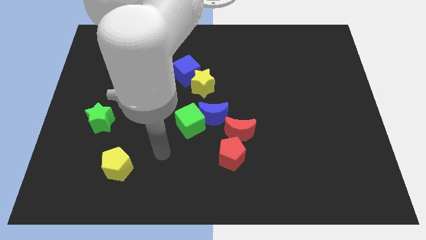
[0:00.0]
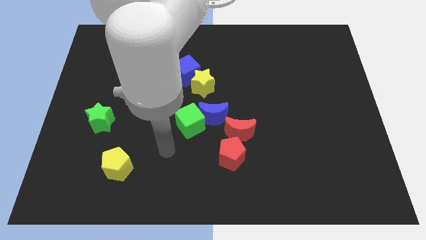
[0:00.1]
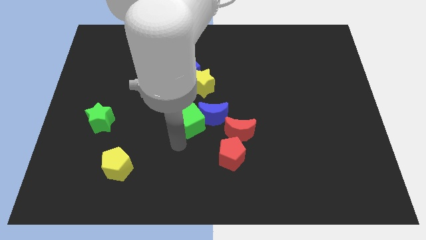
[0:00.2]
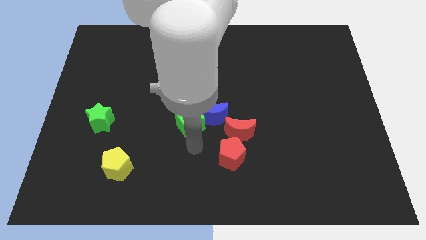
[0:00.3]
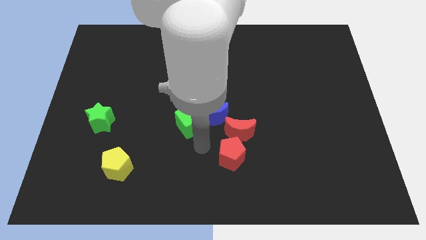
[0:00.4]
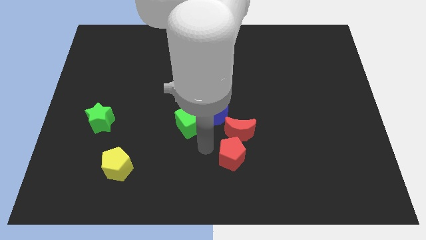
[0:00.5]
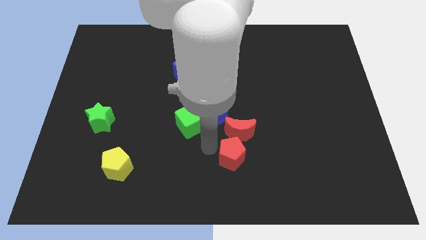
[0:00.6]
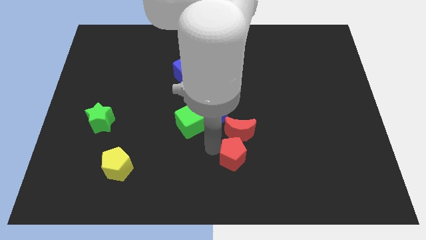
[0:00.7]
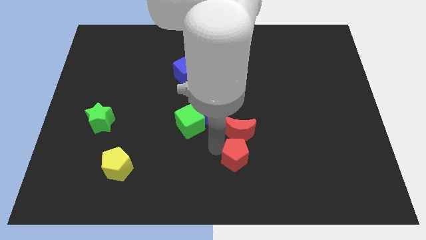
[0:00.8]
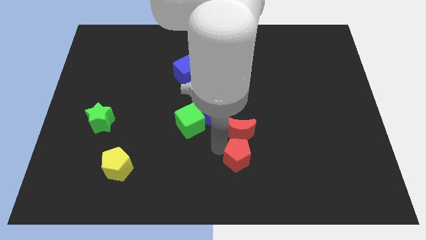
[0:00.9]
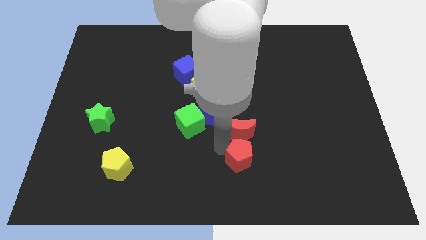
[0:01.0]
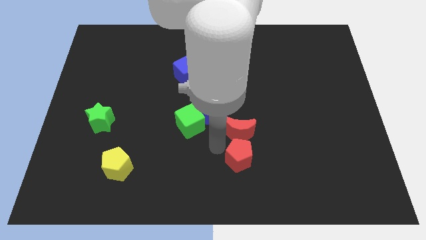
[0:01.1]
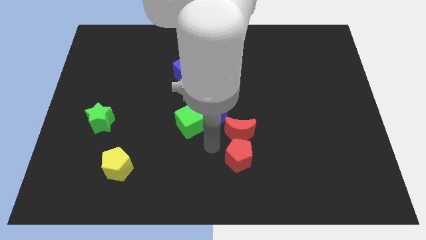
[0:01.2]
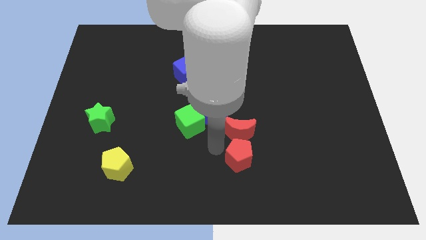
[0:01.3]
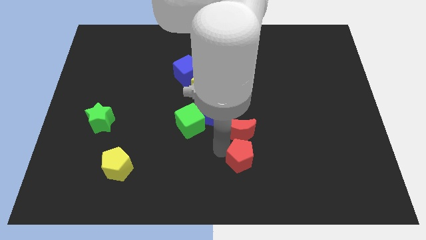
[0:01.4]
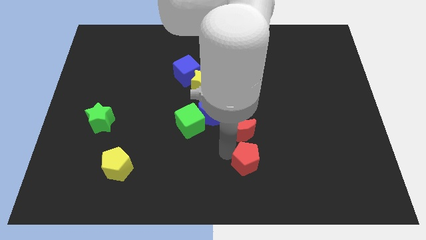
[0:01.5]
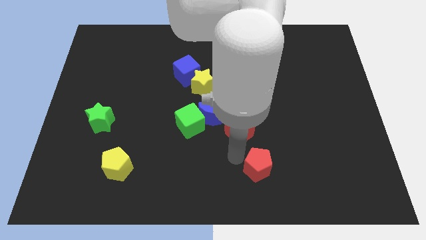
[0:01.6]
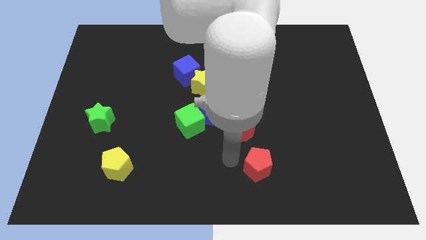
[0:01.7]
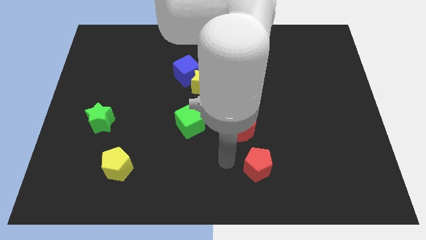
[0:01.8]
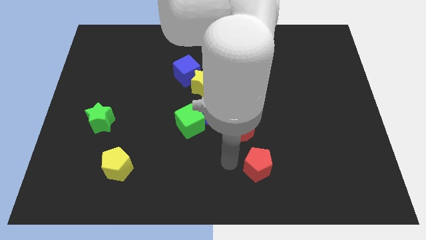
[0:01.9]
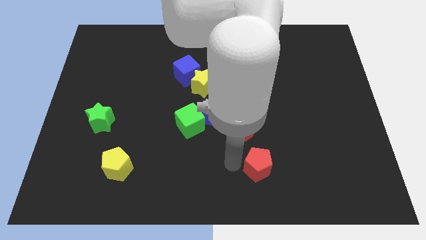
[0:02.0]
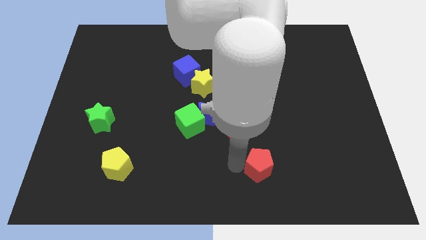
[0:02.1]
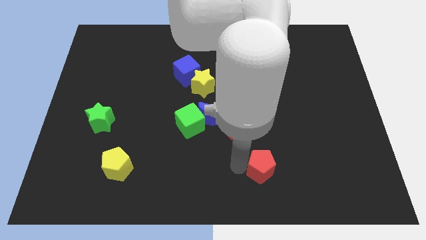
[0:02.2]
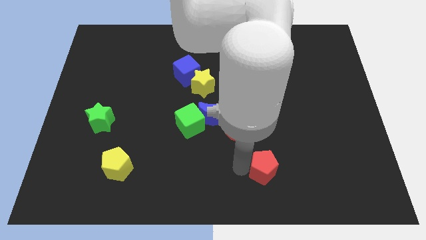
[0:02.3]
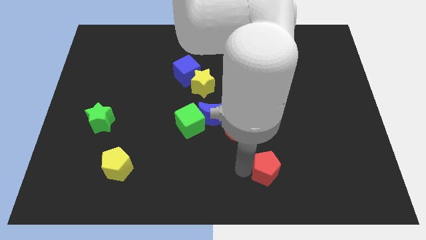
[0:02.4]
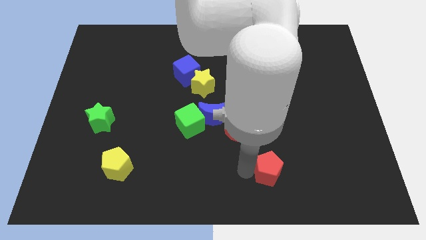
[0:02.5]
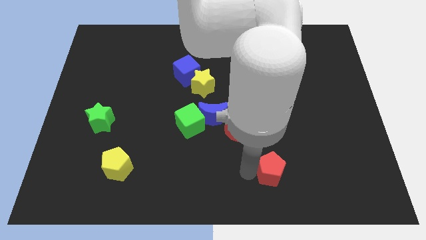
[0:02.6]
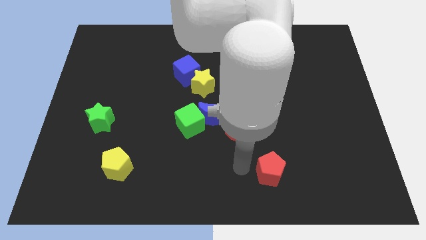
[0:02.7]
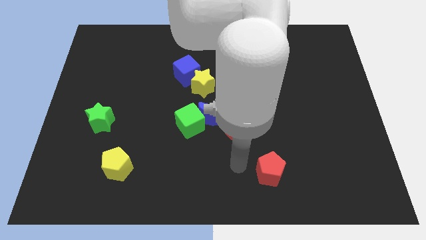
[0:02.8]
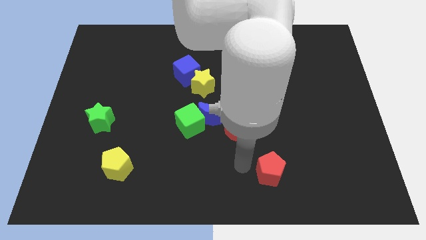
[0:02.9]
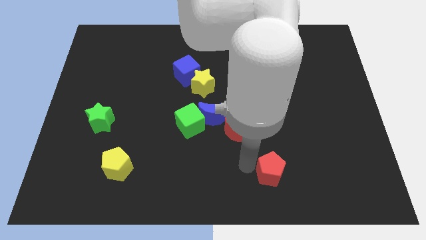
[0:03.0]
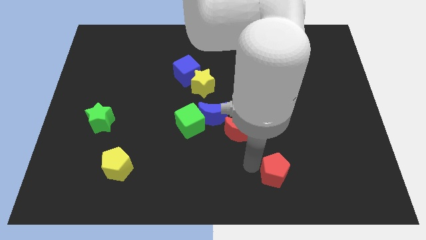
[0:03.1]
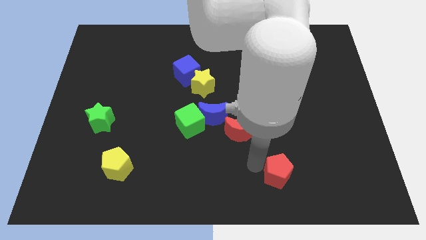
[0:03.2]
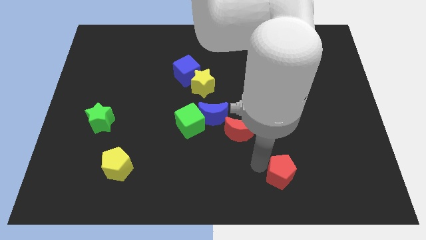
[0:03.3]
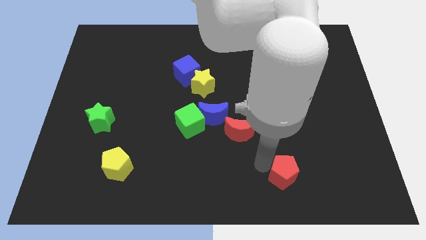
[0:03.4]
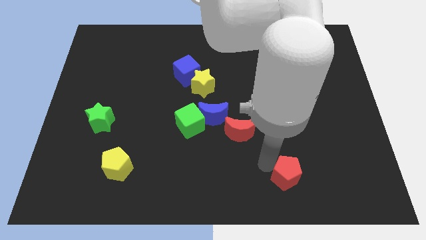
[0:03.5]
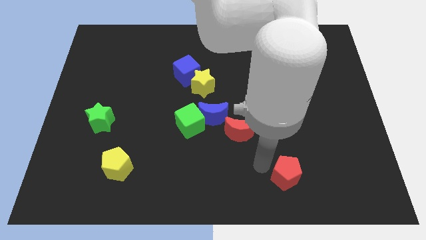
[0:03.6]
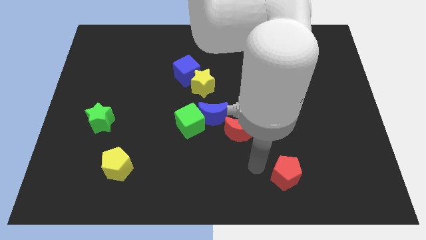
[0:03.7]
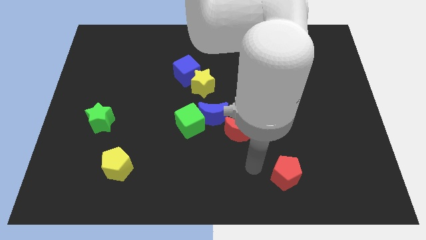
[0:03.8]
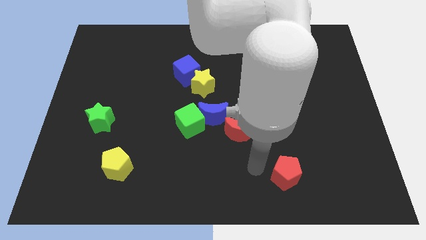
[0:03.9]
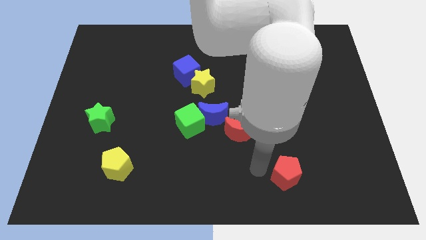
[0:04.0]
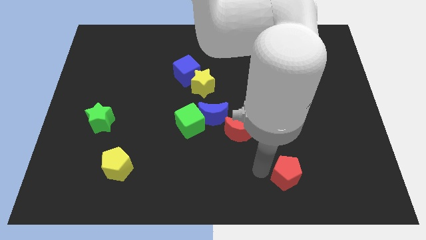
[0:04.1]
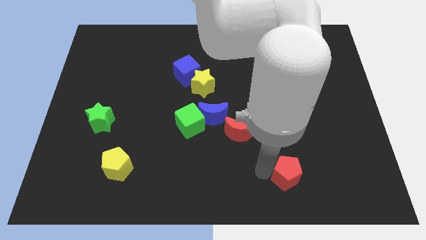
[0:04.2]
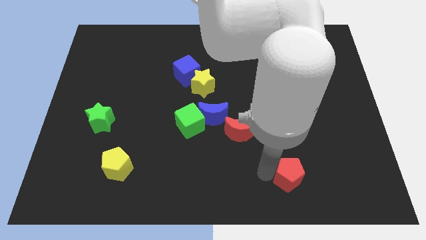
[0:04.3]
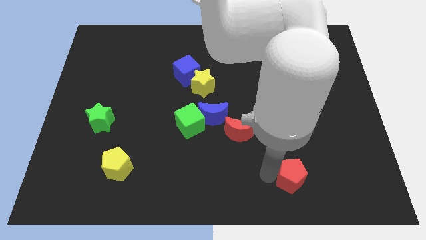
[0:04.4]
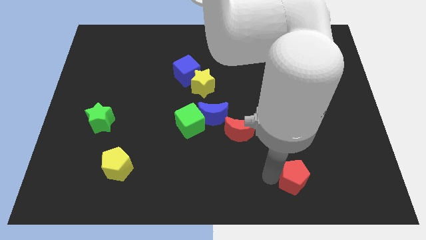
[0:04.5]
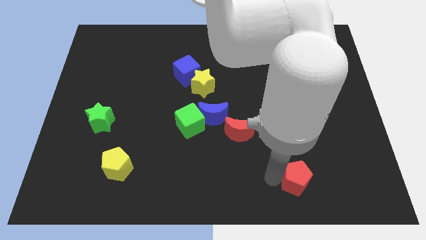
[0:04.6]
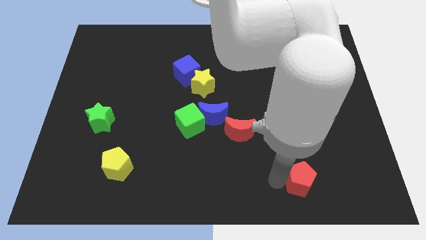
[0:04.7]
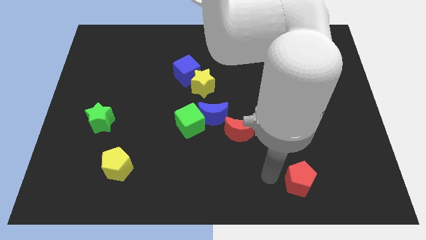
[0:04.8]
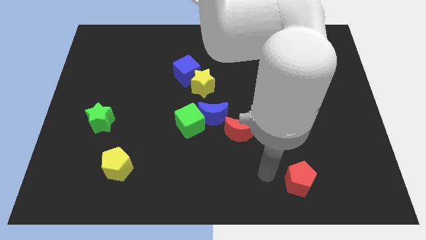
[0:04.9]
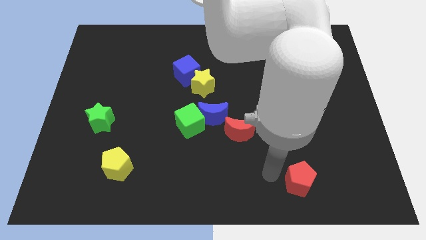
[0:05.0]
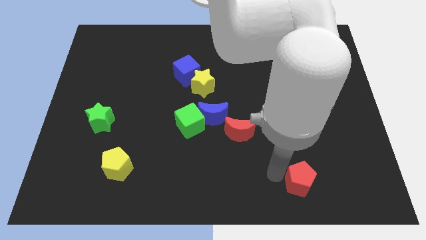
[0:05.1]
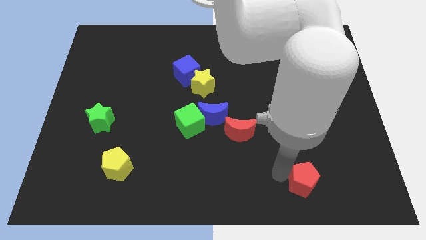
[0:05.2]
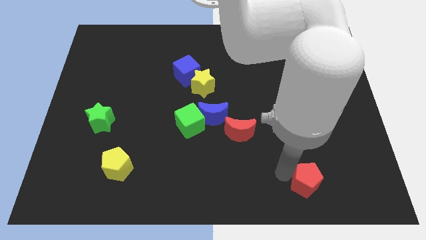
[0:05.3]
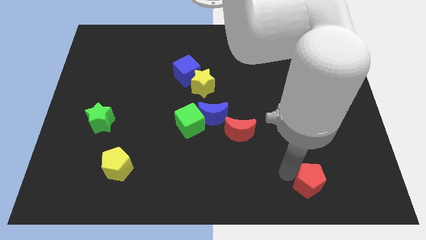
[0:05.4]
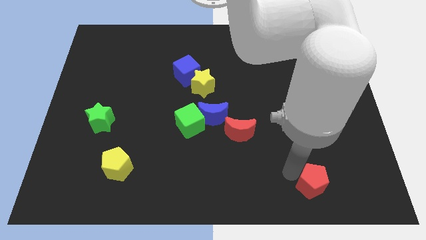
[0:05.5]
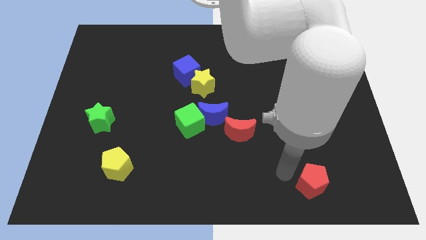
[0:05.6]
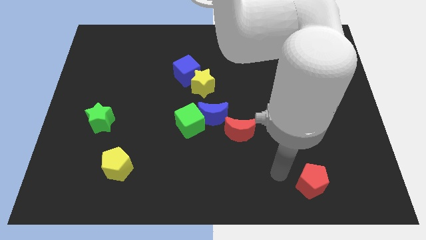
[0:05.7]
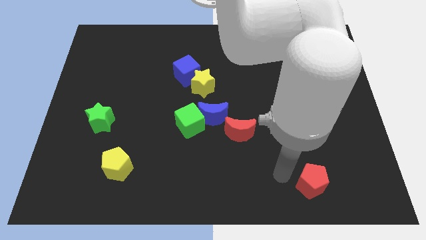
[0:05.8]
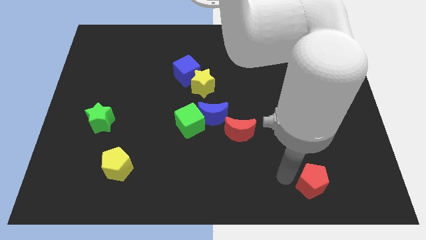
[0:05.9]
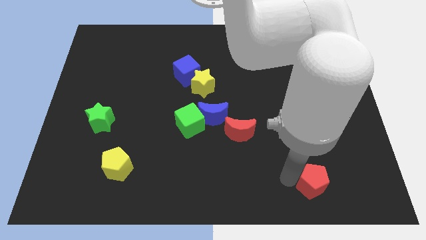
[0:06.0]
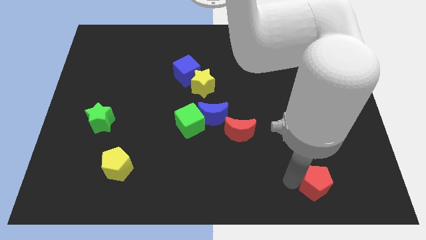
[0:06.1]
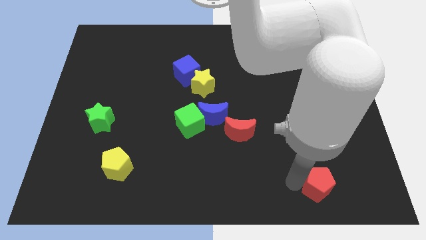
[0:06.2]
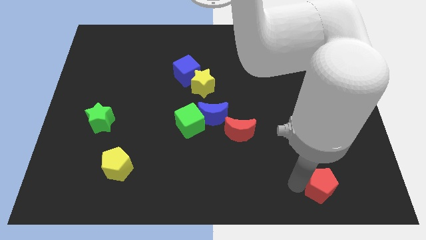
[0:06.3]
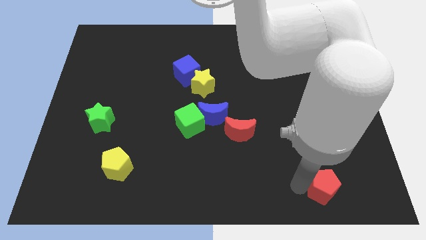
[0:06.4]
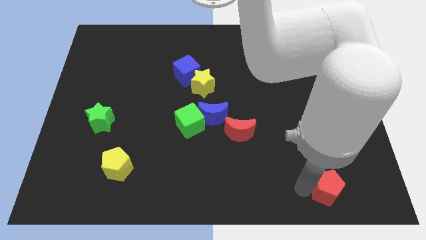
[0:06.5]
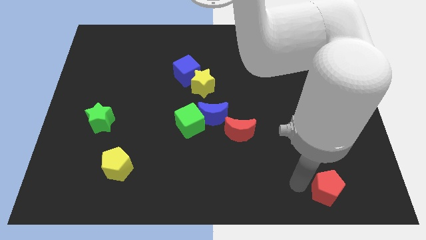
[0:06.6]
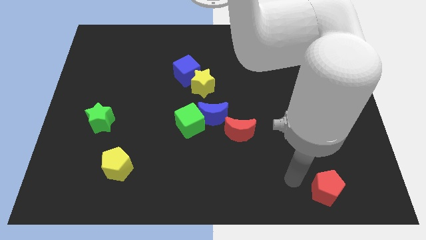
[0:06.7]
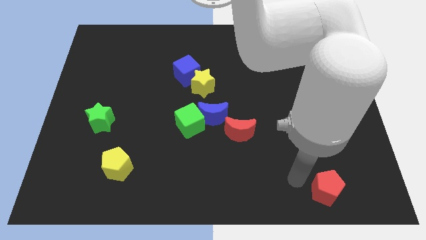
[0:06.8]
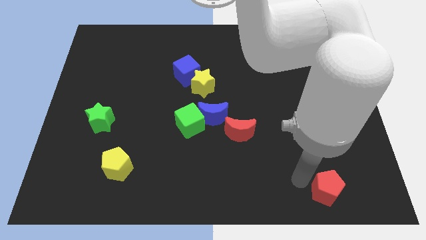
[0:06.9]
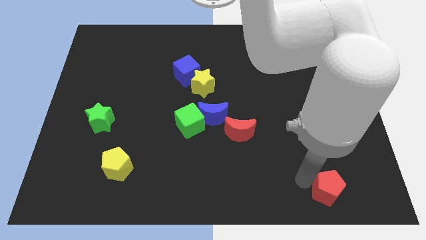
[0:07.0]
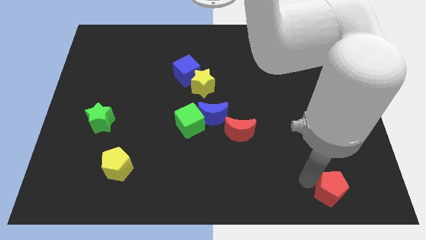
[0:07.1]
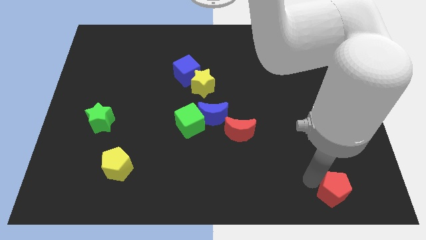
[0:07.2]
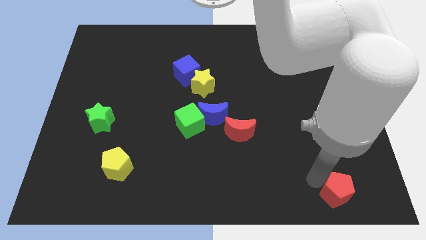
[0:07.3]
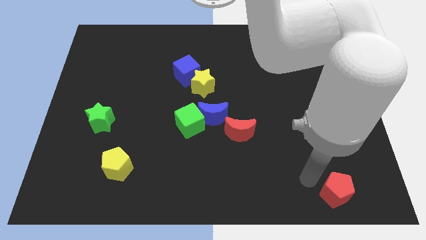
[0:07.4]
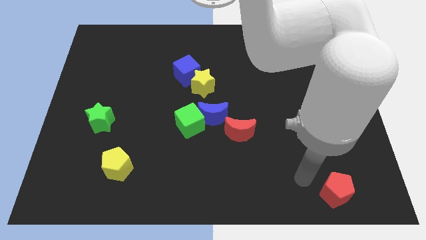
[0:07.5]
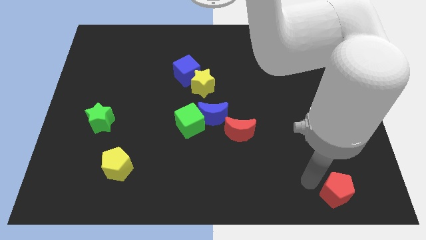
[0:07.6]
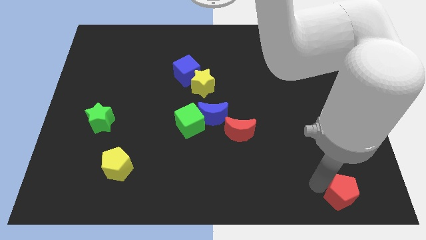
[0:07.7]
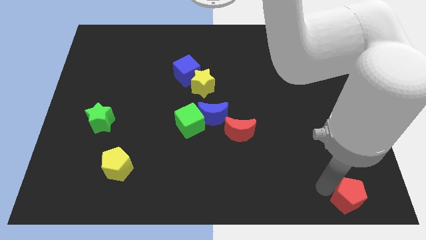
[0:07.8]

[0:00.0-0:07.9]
slide the red pentagon to the bottom right corner
